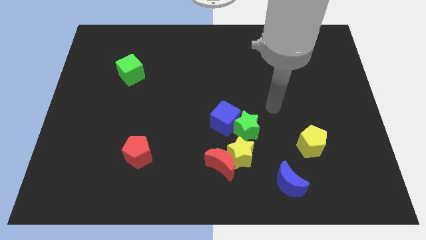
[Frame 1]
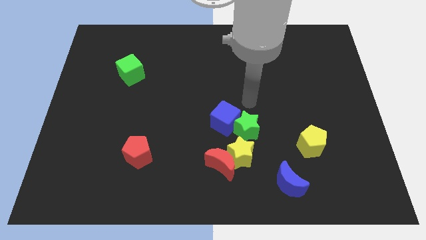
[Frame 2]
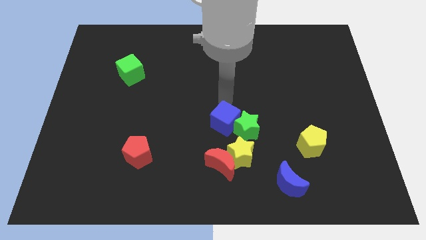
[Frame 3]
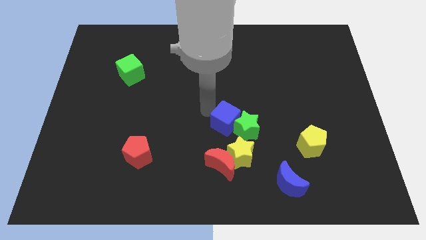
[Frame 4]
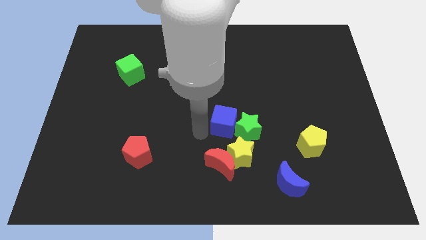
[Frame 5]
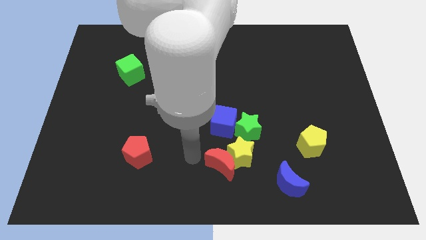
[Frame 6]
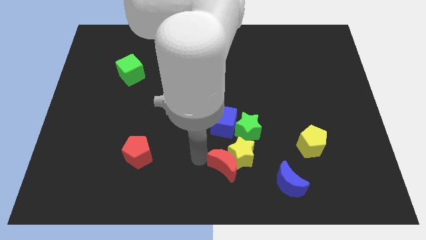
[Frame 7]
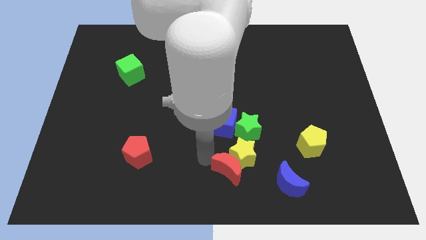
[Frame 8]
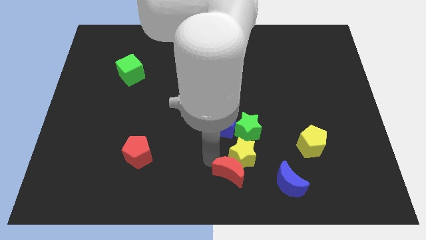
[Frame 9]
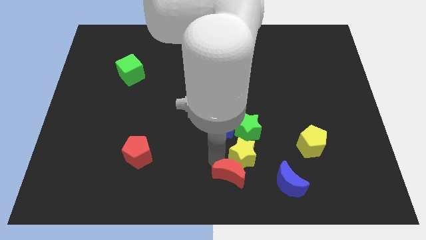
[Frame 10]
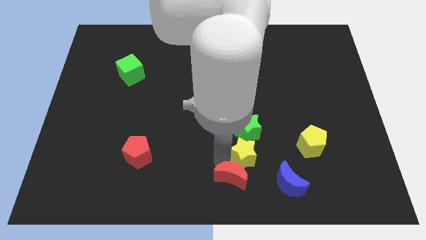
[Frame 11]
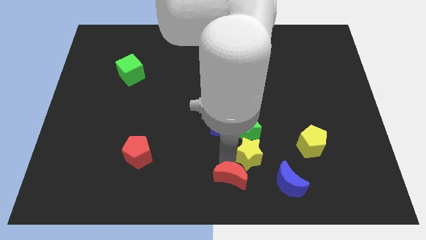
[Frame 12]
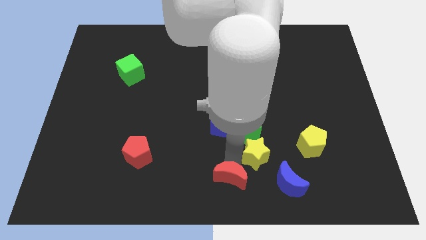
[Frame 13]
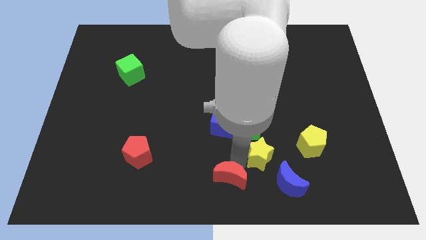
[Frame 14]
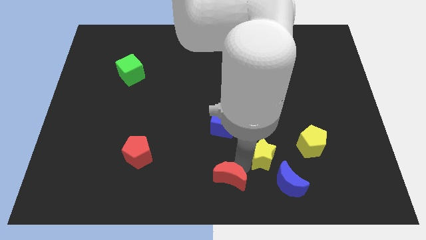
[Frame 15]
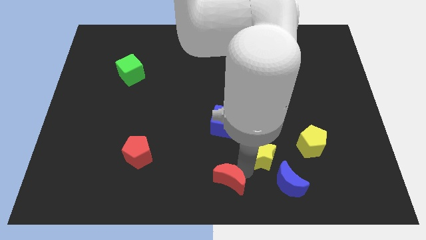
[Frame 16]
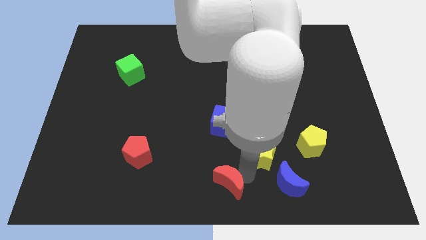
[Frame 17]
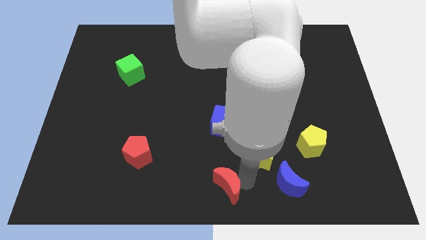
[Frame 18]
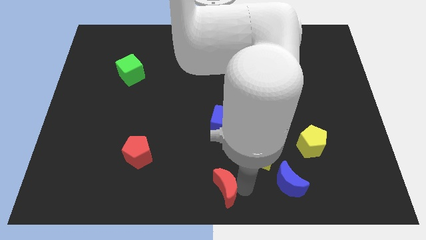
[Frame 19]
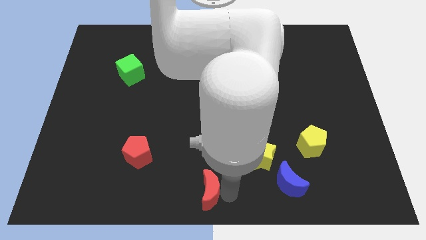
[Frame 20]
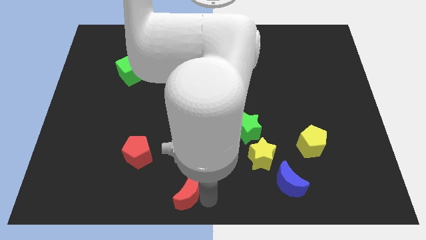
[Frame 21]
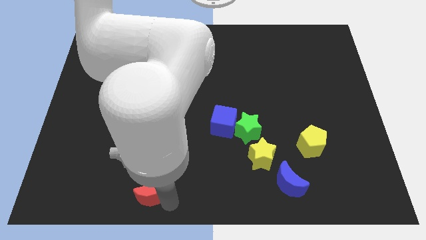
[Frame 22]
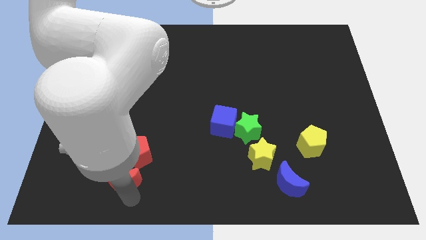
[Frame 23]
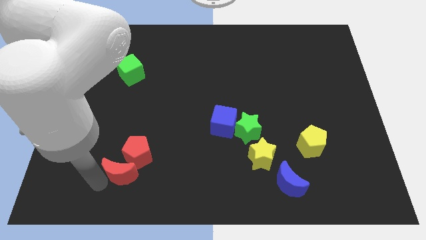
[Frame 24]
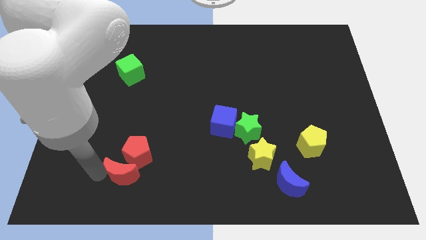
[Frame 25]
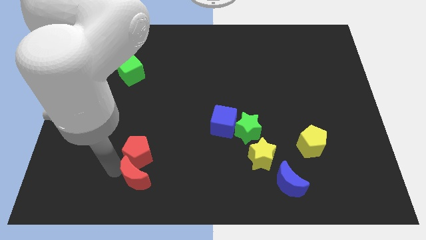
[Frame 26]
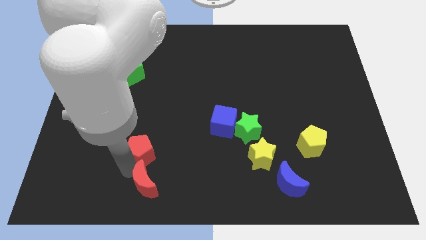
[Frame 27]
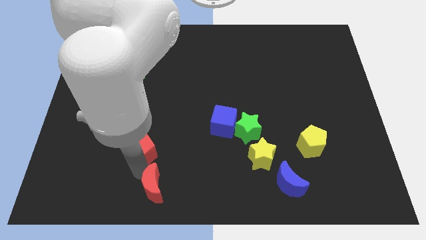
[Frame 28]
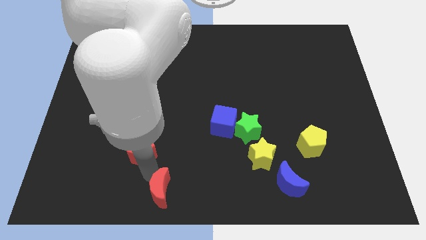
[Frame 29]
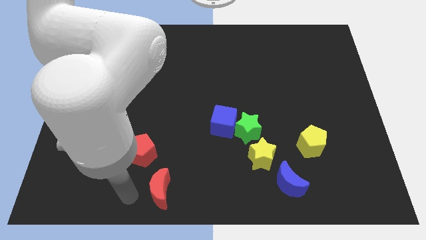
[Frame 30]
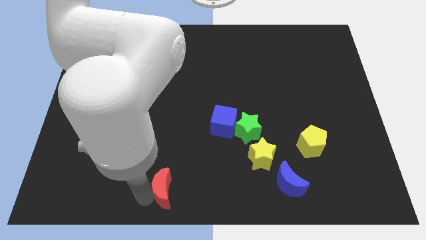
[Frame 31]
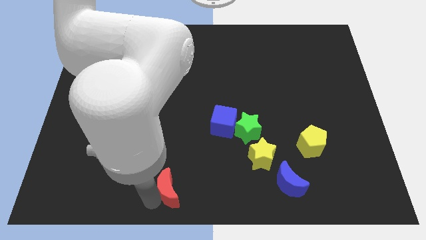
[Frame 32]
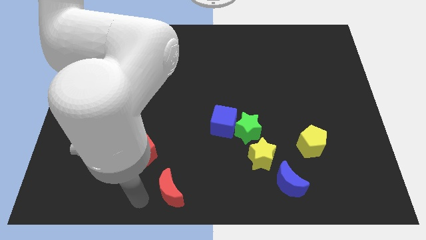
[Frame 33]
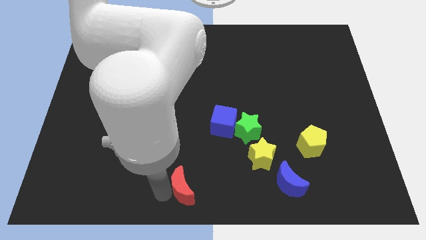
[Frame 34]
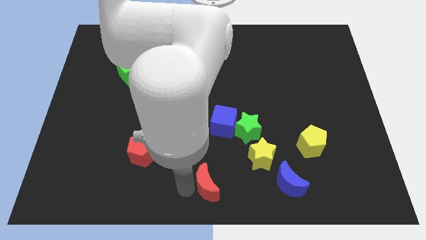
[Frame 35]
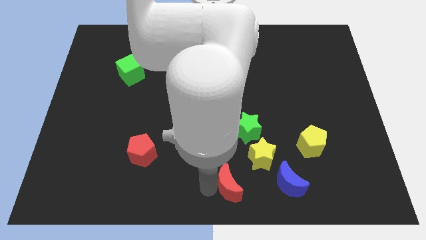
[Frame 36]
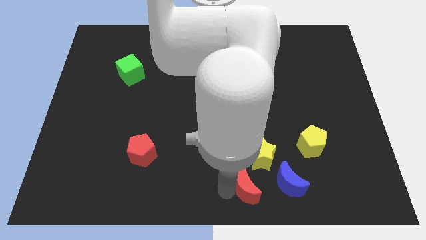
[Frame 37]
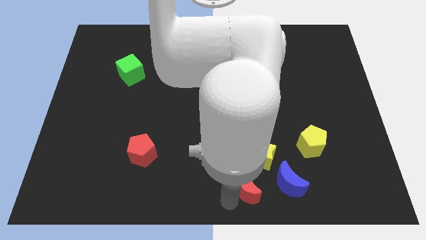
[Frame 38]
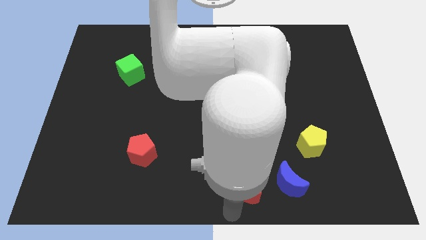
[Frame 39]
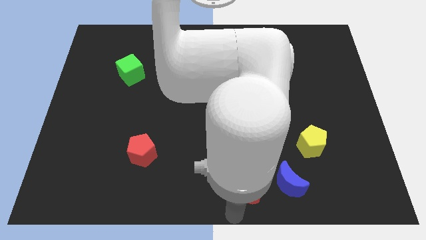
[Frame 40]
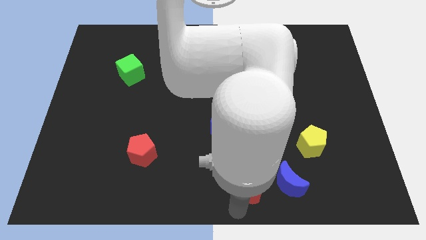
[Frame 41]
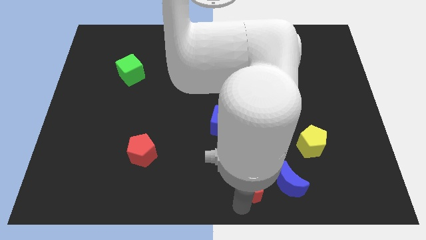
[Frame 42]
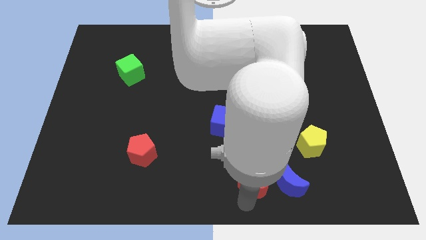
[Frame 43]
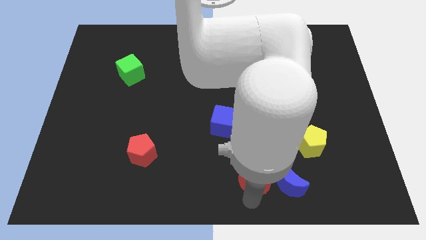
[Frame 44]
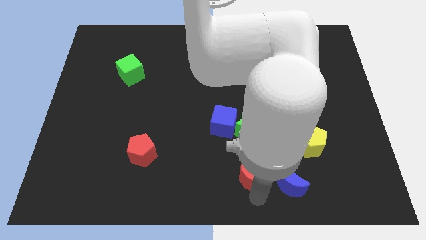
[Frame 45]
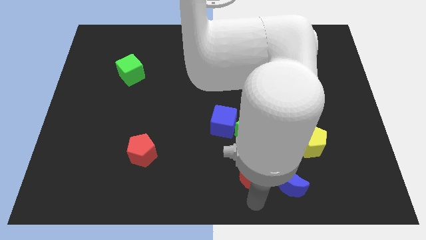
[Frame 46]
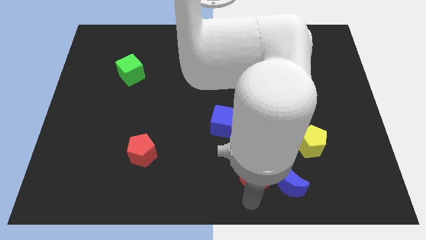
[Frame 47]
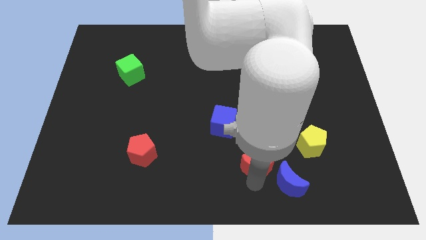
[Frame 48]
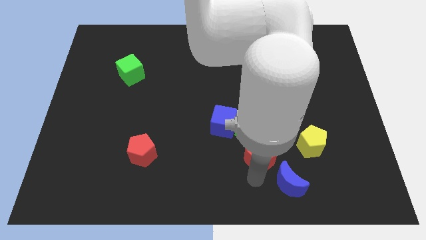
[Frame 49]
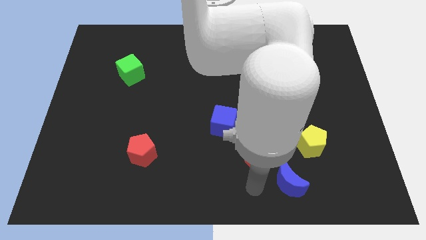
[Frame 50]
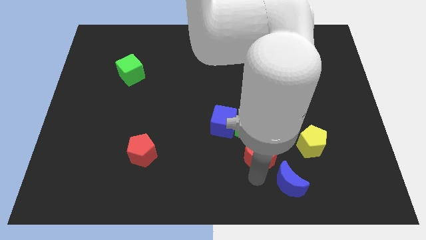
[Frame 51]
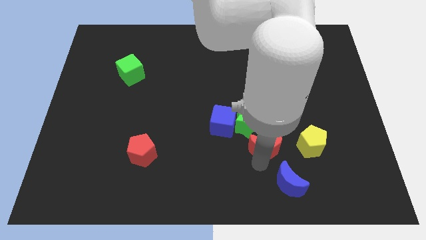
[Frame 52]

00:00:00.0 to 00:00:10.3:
push the red moon slightly up and right

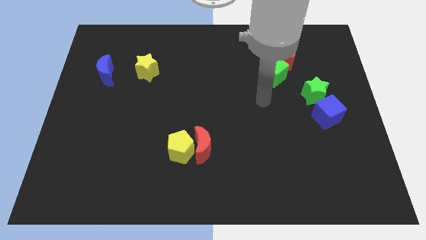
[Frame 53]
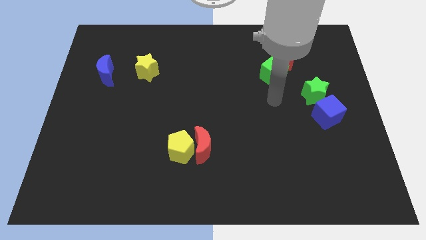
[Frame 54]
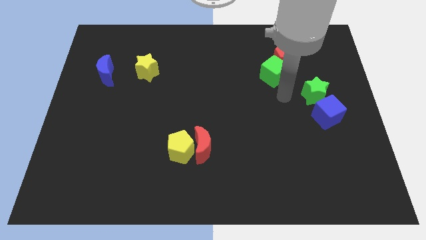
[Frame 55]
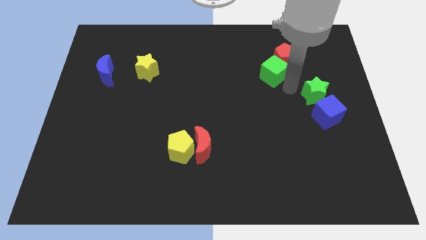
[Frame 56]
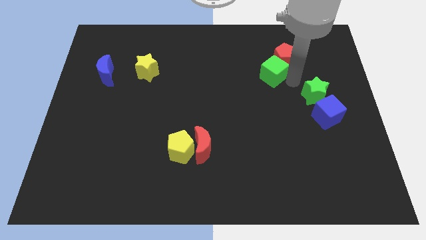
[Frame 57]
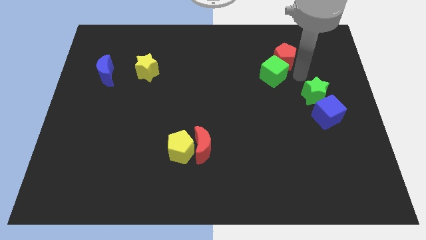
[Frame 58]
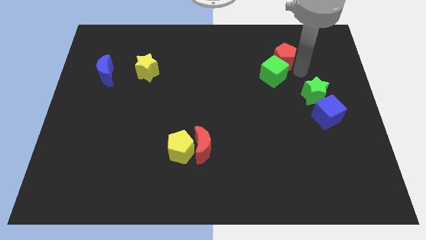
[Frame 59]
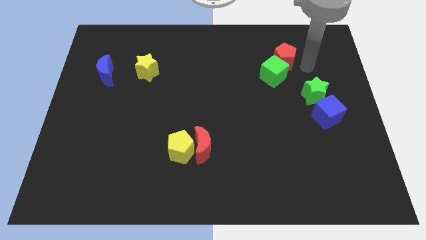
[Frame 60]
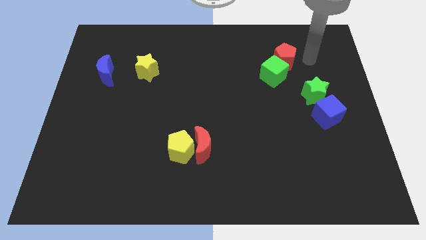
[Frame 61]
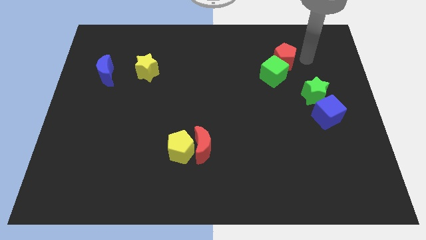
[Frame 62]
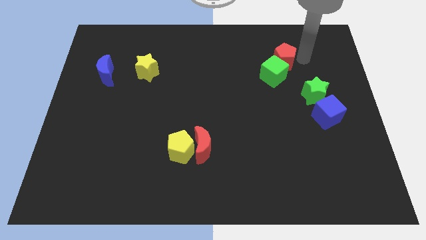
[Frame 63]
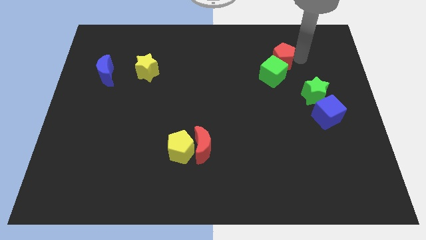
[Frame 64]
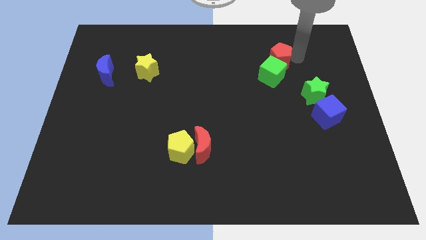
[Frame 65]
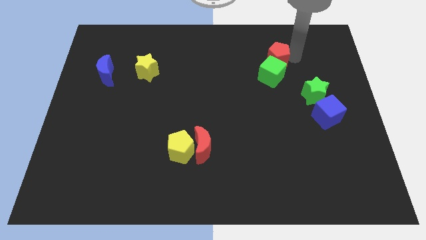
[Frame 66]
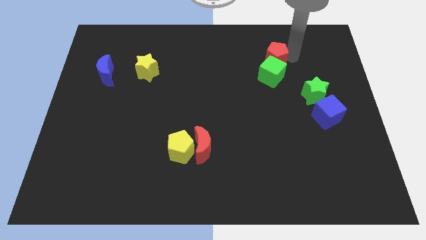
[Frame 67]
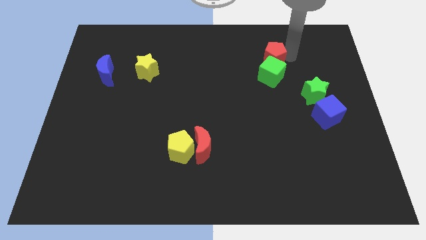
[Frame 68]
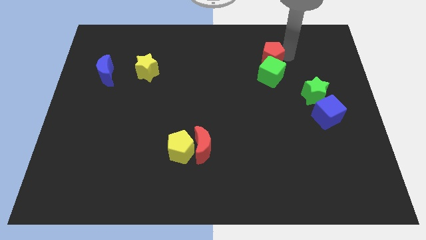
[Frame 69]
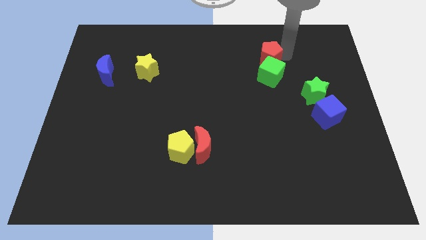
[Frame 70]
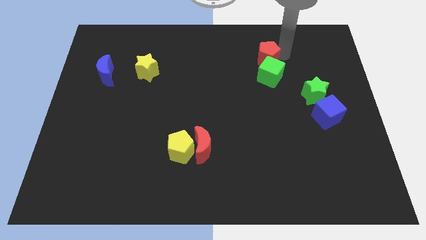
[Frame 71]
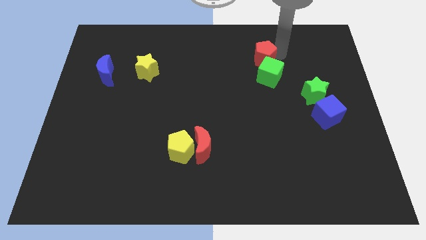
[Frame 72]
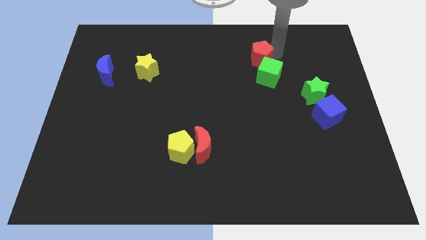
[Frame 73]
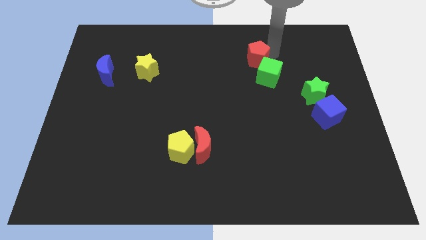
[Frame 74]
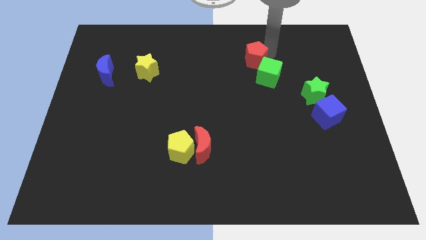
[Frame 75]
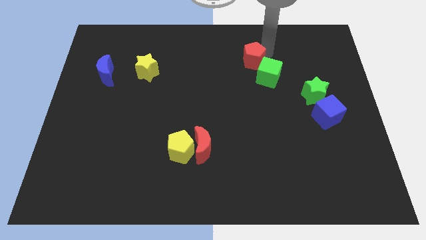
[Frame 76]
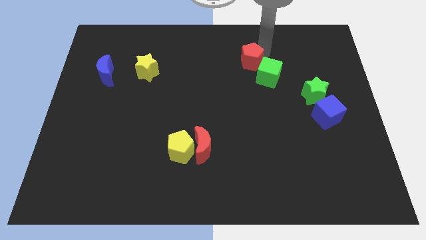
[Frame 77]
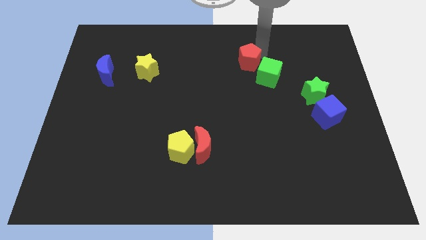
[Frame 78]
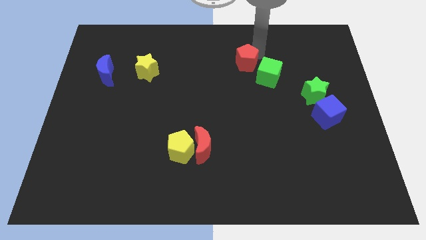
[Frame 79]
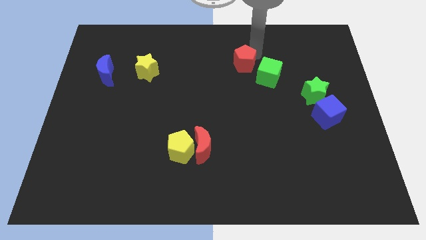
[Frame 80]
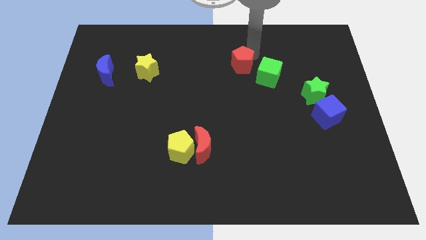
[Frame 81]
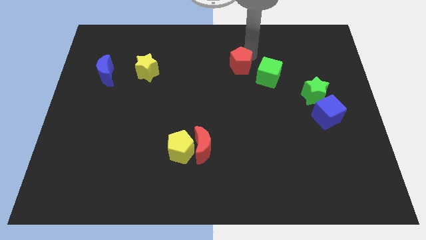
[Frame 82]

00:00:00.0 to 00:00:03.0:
slightly slide the red pentagon down and to the left
